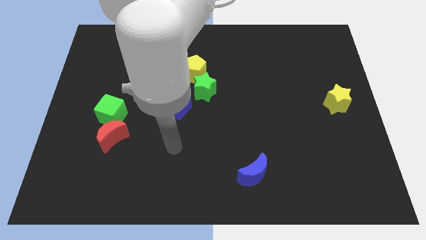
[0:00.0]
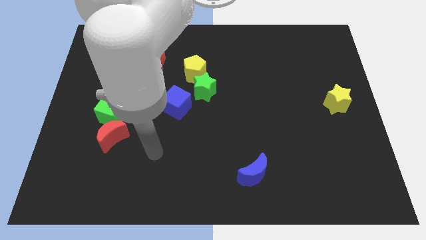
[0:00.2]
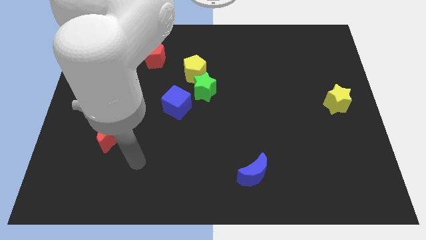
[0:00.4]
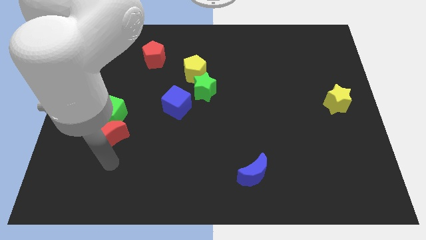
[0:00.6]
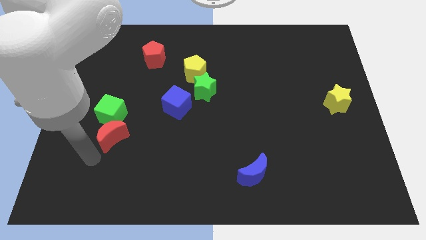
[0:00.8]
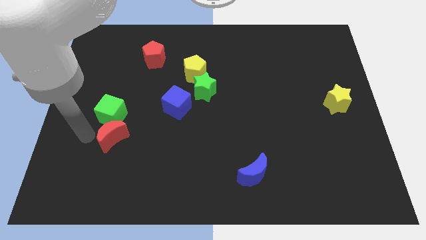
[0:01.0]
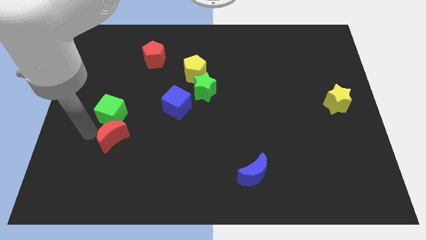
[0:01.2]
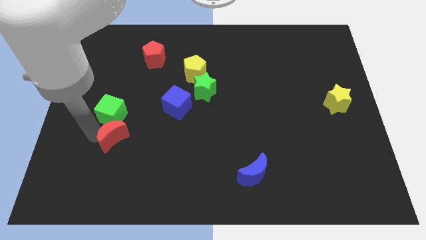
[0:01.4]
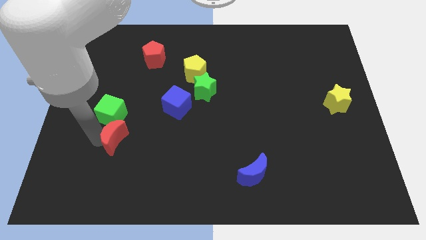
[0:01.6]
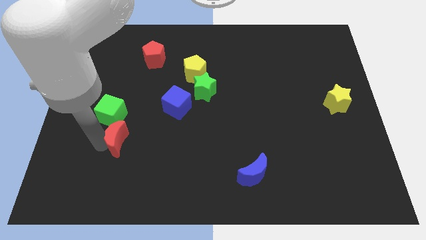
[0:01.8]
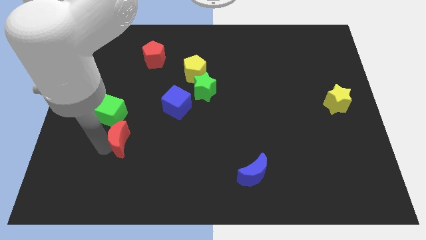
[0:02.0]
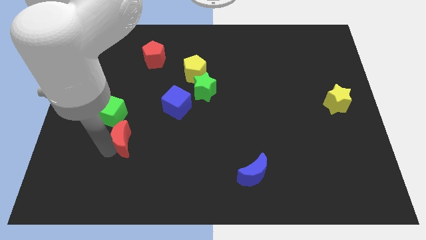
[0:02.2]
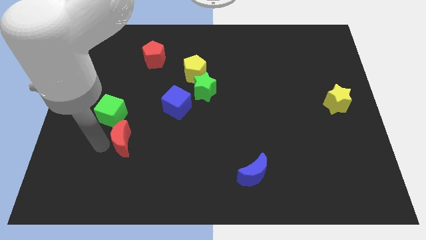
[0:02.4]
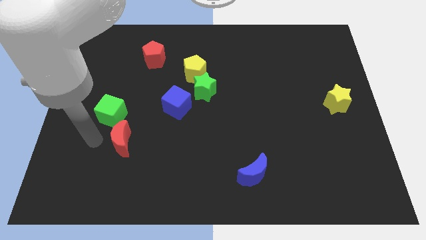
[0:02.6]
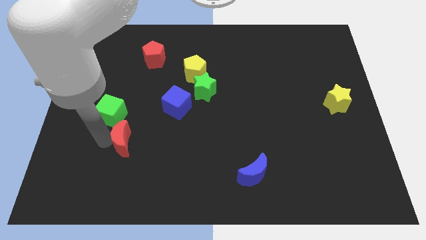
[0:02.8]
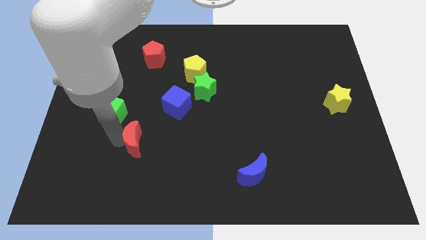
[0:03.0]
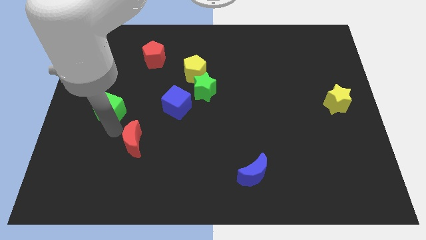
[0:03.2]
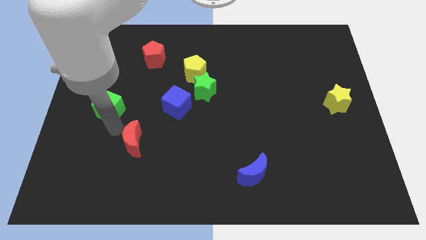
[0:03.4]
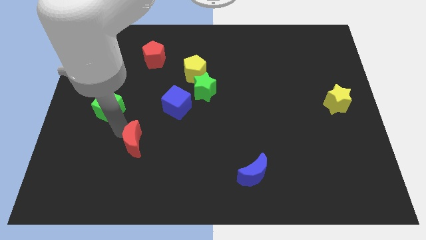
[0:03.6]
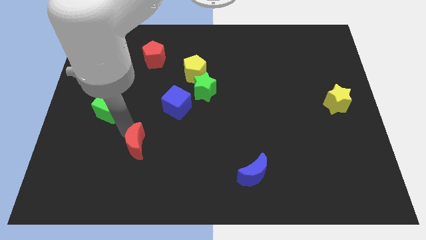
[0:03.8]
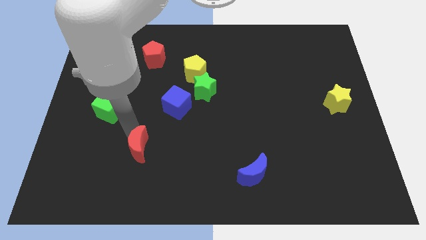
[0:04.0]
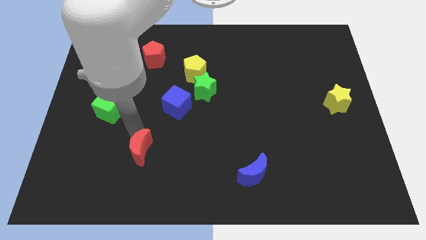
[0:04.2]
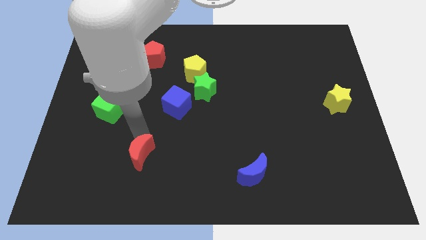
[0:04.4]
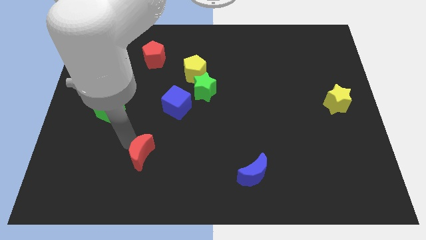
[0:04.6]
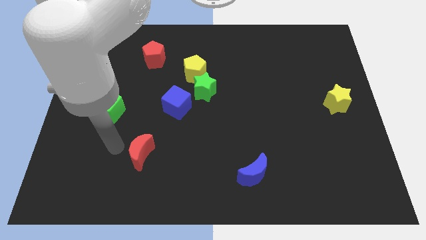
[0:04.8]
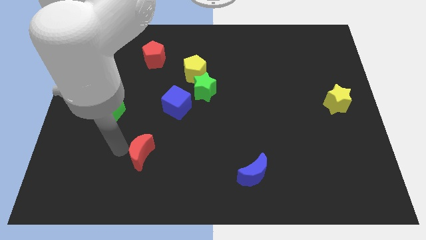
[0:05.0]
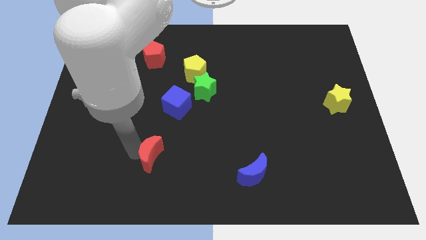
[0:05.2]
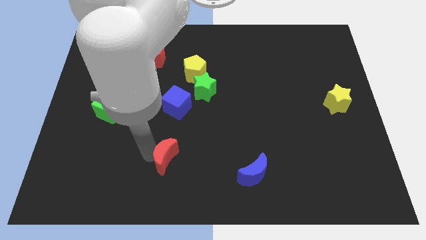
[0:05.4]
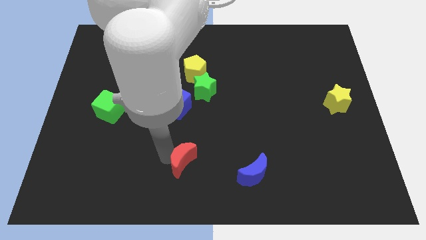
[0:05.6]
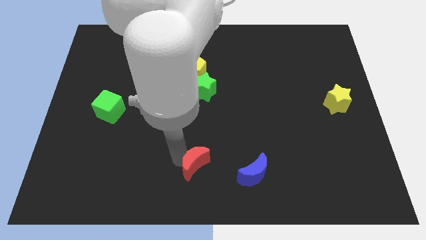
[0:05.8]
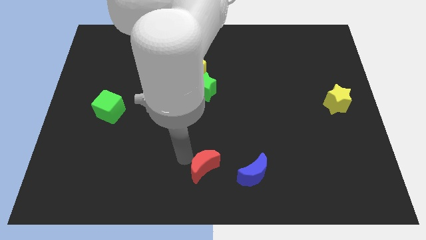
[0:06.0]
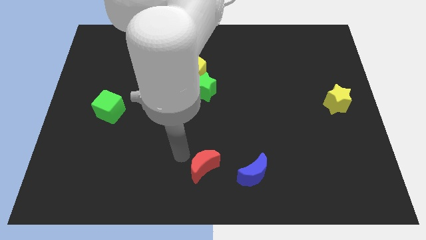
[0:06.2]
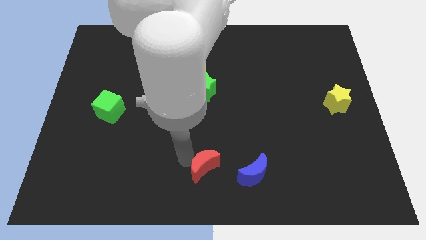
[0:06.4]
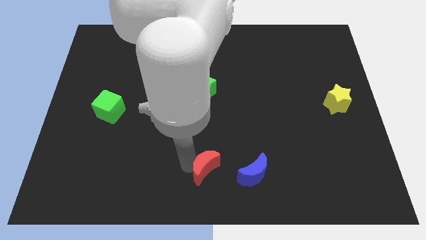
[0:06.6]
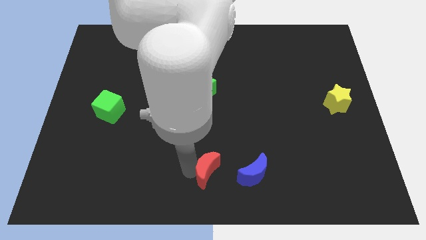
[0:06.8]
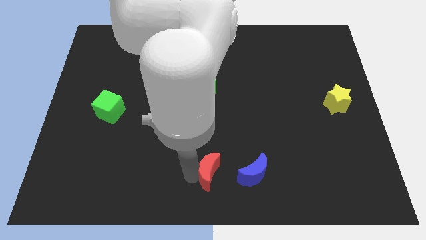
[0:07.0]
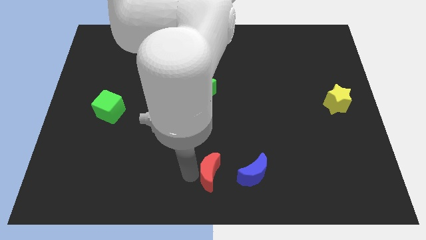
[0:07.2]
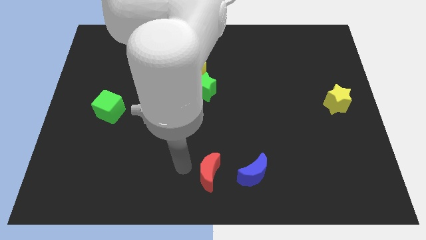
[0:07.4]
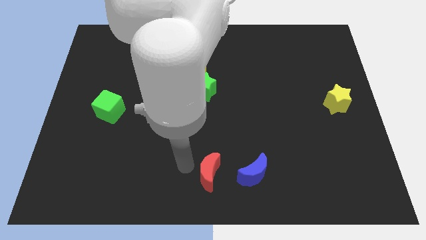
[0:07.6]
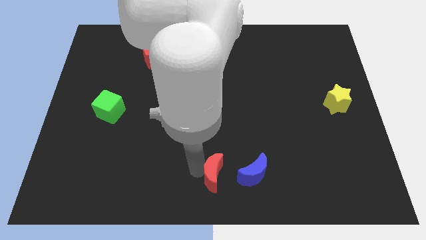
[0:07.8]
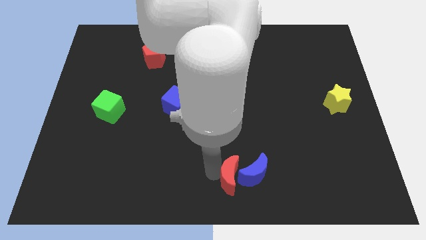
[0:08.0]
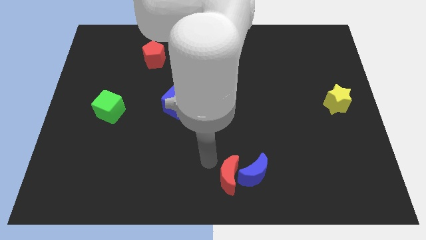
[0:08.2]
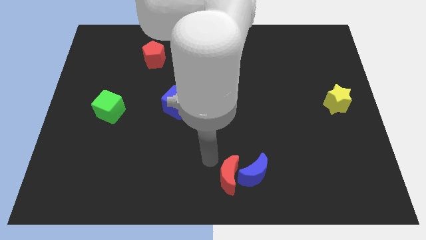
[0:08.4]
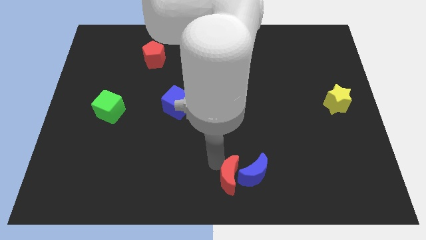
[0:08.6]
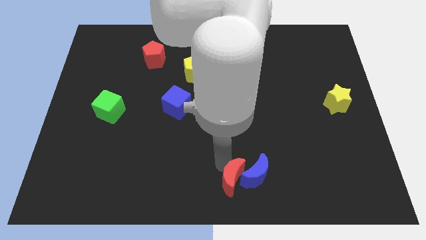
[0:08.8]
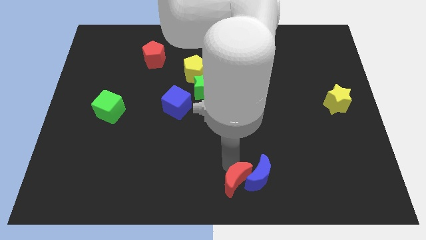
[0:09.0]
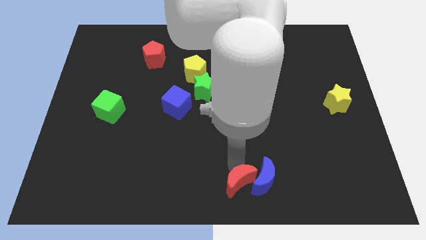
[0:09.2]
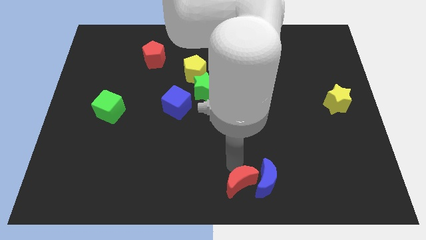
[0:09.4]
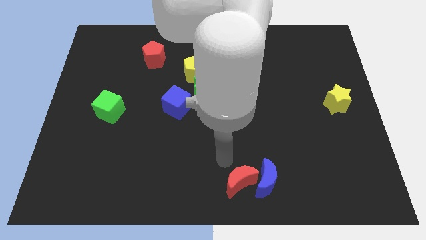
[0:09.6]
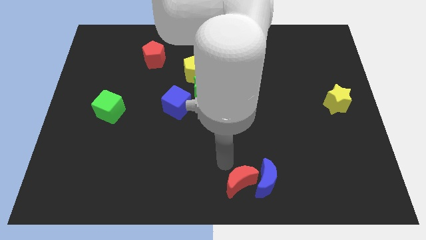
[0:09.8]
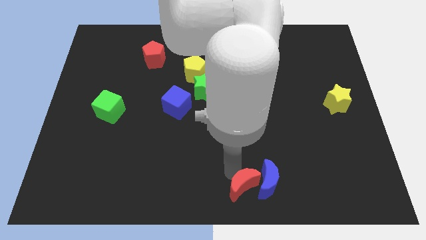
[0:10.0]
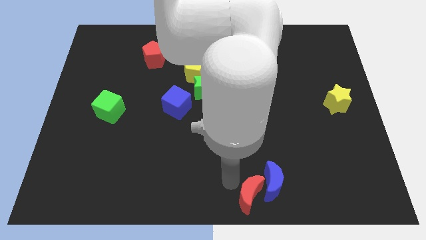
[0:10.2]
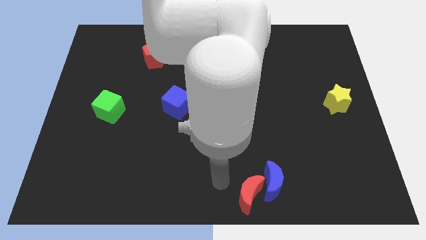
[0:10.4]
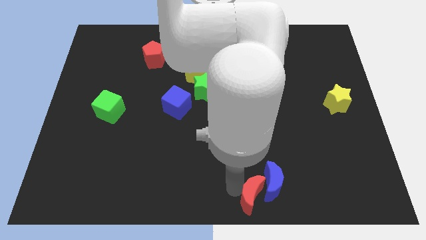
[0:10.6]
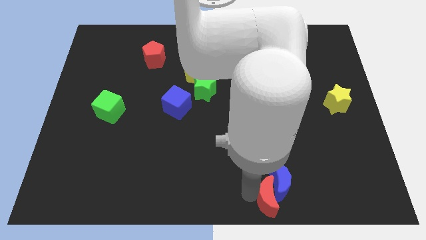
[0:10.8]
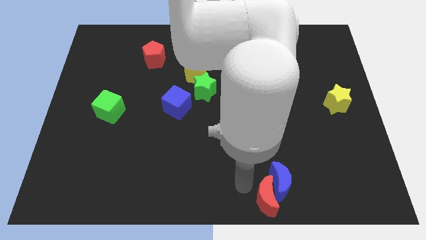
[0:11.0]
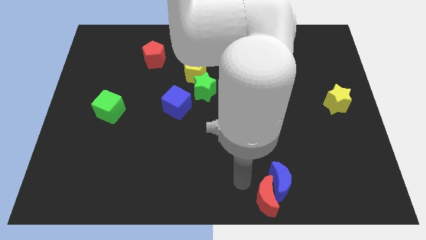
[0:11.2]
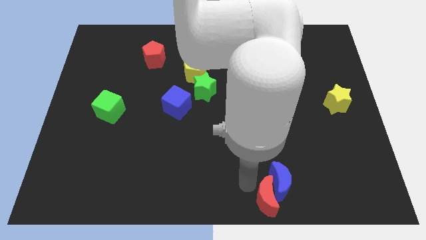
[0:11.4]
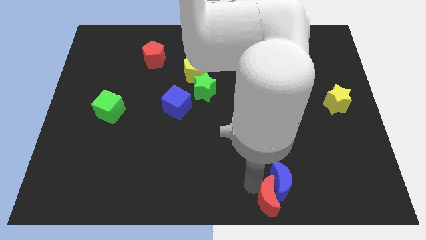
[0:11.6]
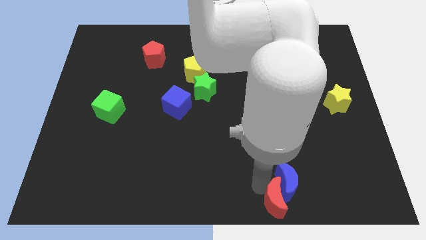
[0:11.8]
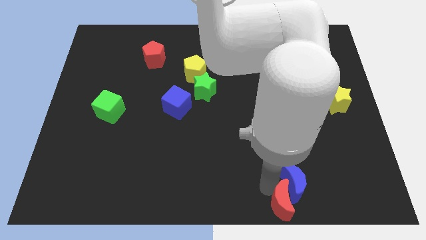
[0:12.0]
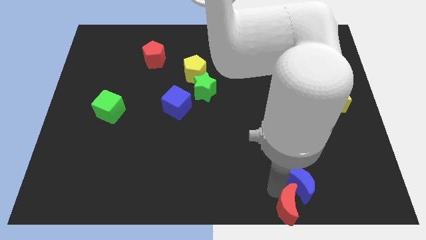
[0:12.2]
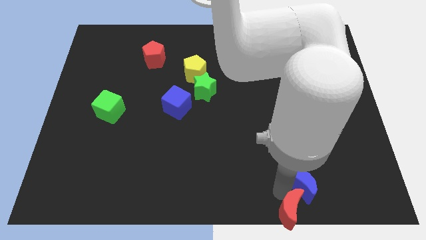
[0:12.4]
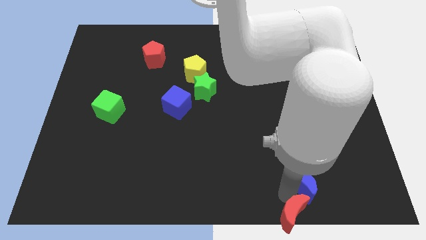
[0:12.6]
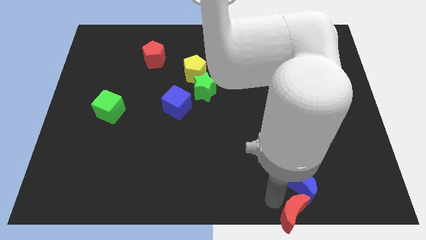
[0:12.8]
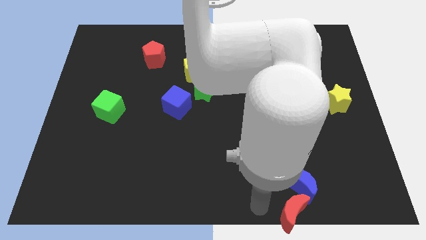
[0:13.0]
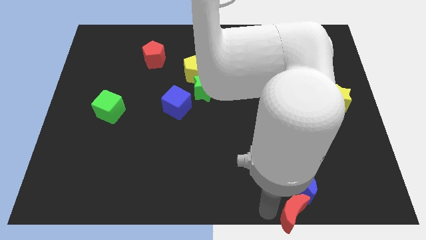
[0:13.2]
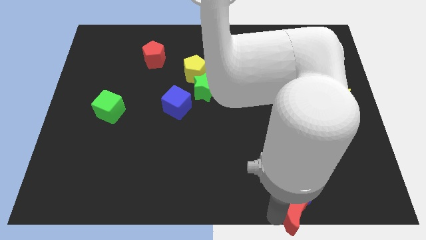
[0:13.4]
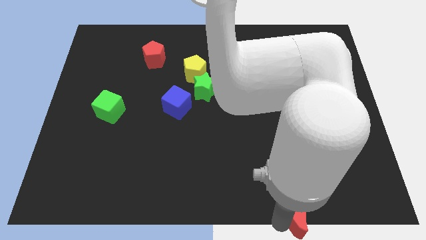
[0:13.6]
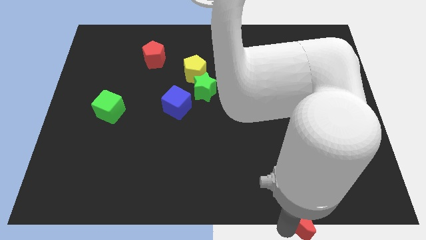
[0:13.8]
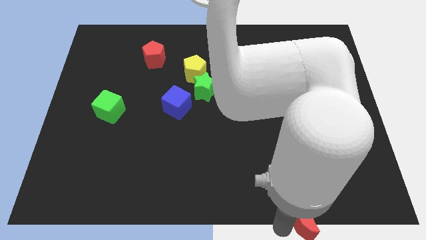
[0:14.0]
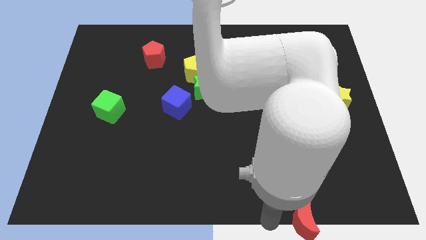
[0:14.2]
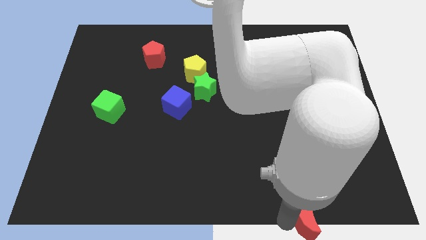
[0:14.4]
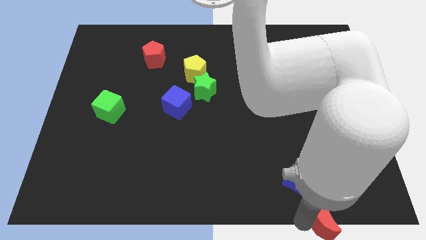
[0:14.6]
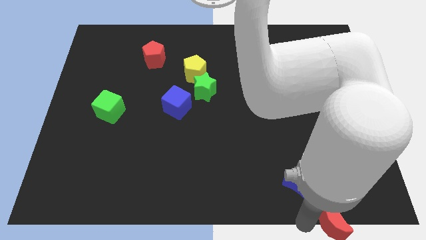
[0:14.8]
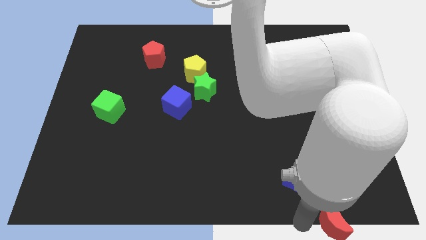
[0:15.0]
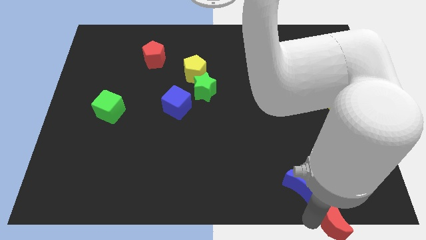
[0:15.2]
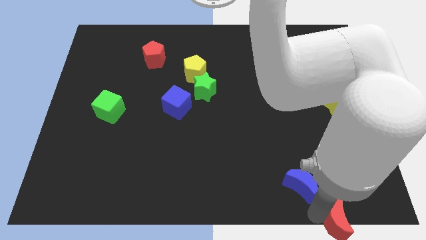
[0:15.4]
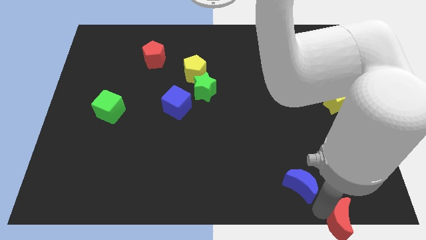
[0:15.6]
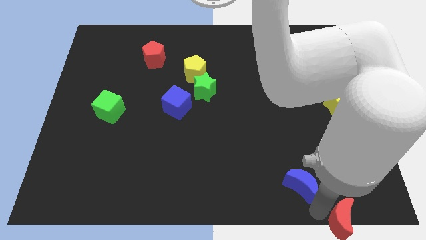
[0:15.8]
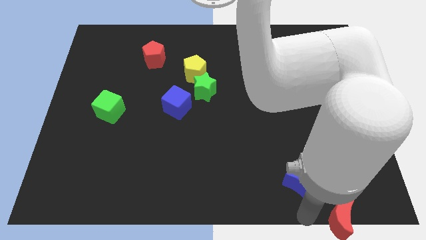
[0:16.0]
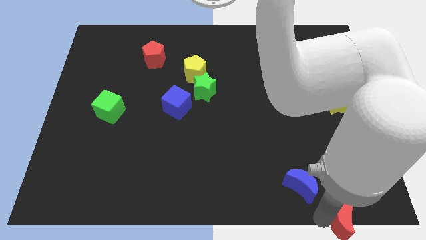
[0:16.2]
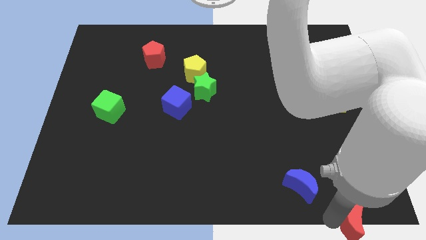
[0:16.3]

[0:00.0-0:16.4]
push the red moon to the bottom right
